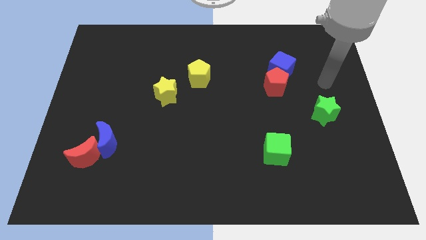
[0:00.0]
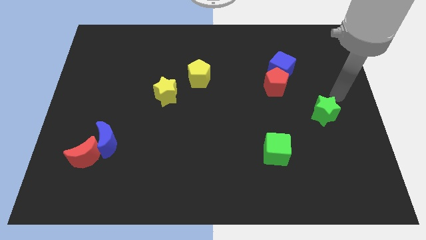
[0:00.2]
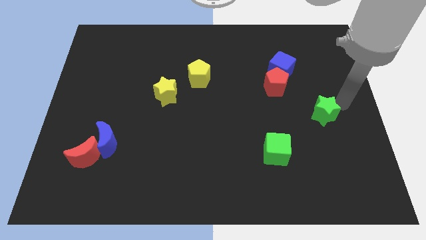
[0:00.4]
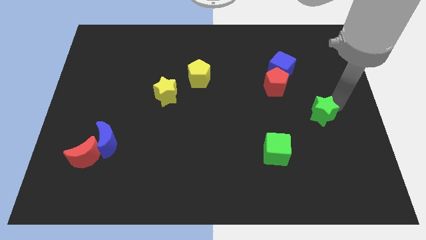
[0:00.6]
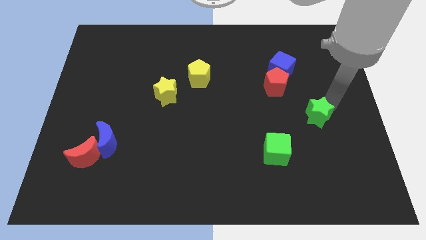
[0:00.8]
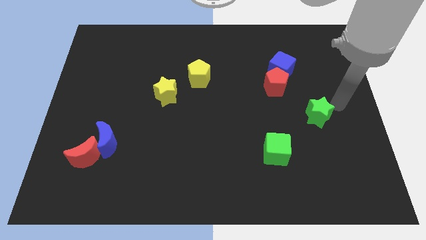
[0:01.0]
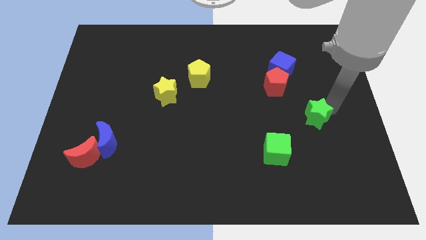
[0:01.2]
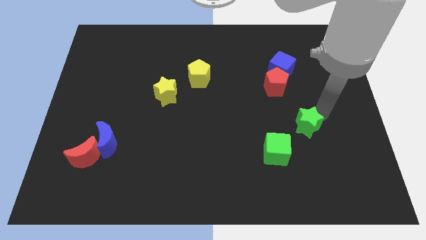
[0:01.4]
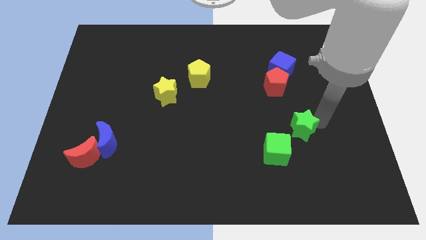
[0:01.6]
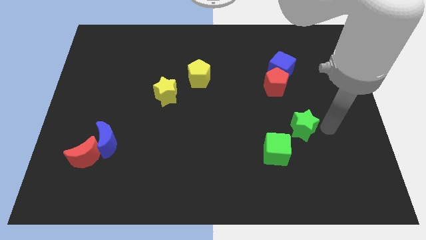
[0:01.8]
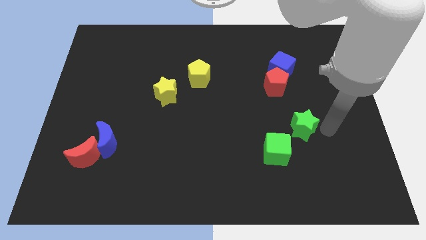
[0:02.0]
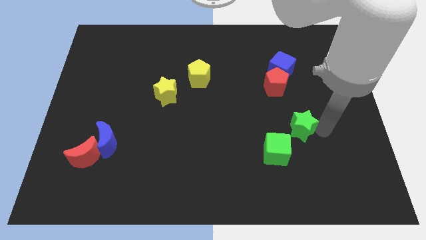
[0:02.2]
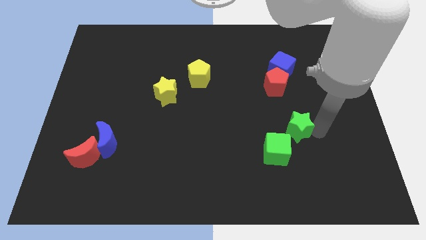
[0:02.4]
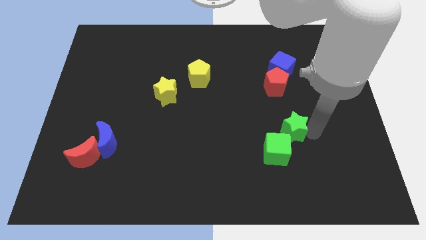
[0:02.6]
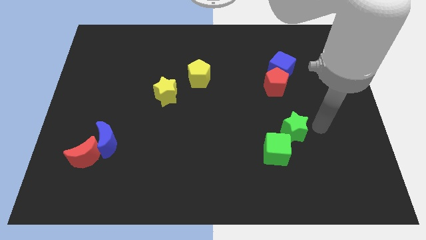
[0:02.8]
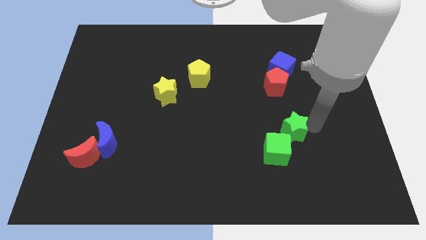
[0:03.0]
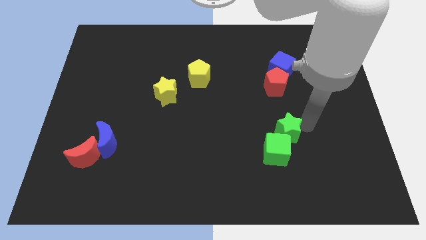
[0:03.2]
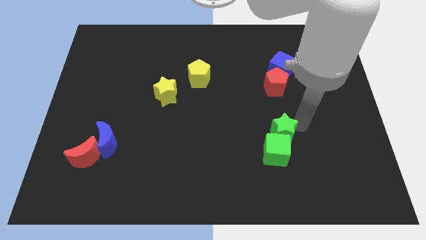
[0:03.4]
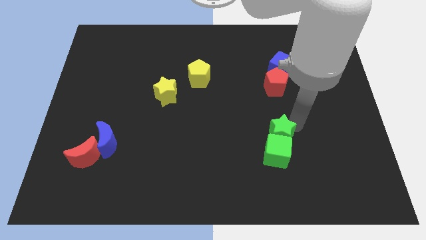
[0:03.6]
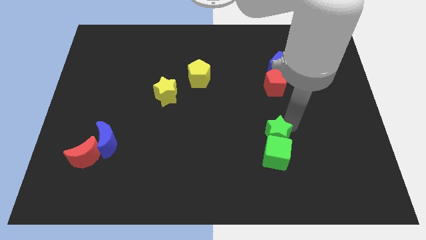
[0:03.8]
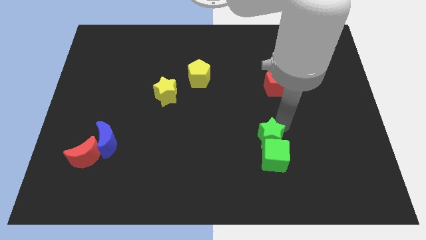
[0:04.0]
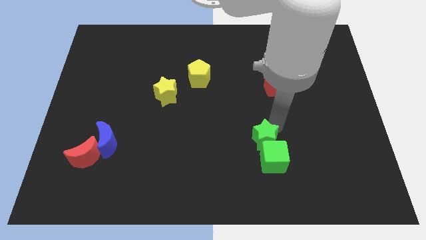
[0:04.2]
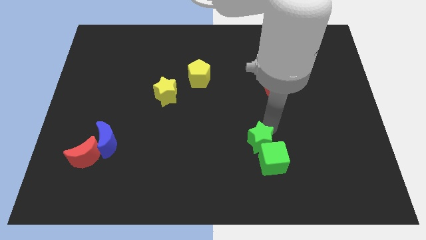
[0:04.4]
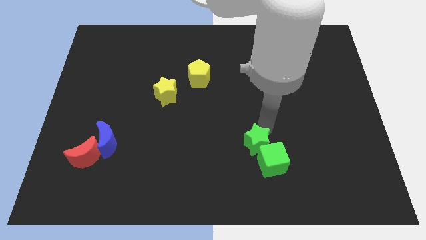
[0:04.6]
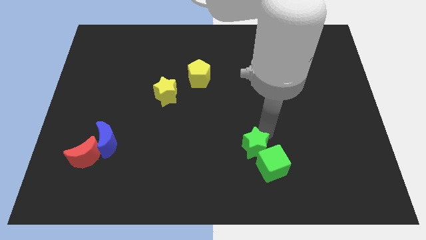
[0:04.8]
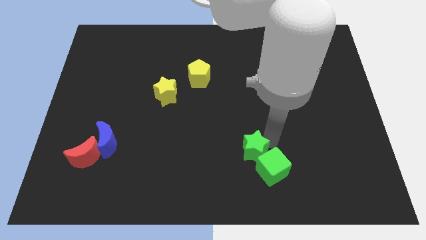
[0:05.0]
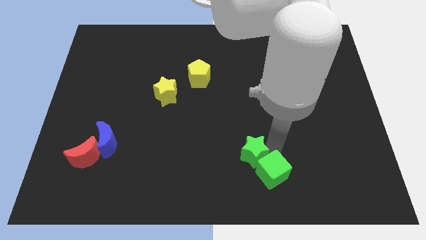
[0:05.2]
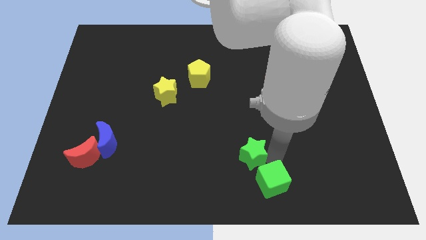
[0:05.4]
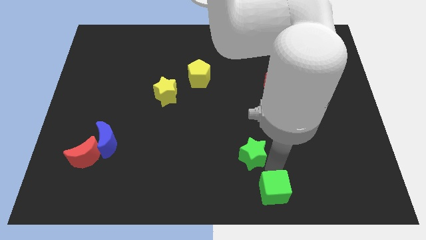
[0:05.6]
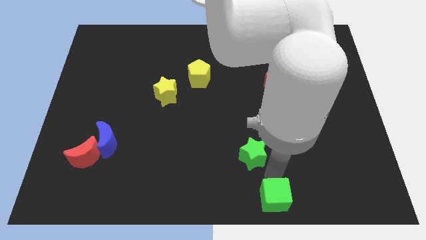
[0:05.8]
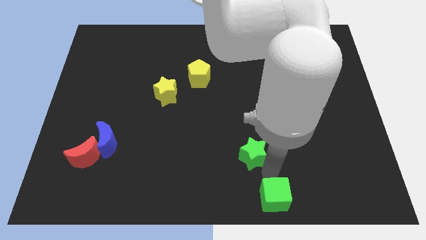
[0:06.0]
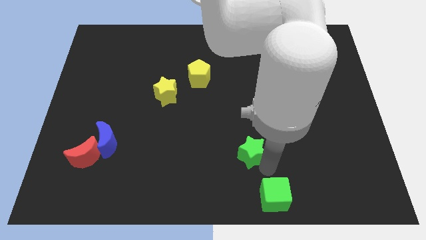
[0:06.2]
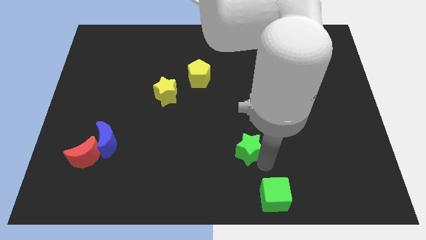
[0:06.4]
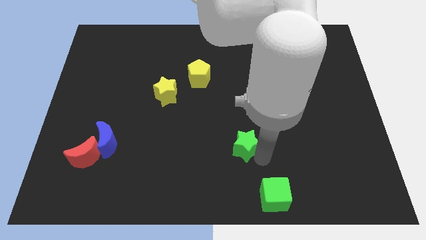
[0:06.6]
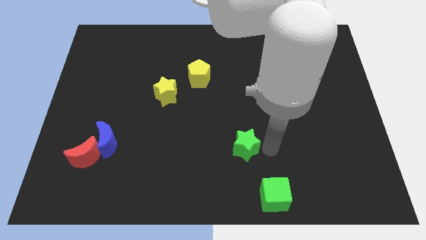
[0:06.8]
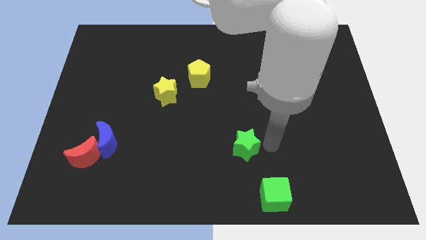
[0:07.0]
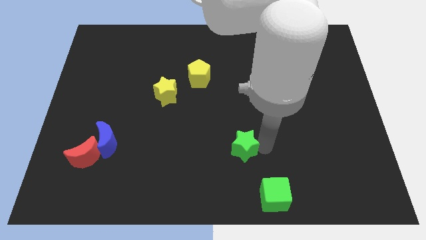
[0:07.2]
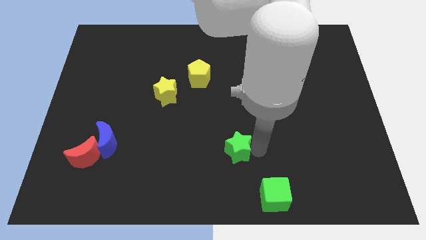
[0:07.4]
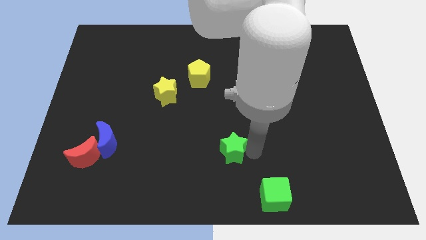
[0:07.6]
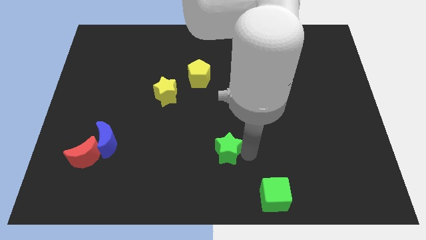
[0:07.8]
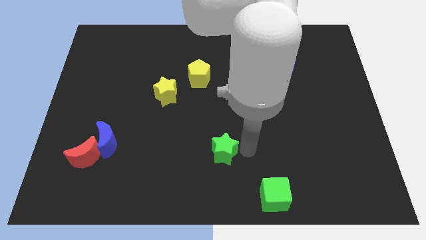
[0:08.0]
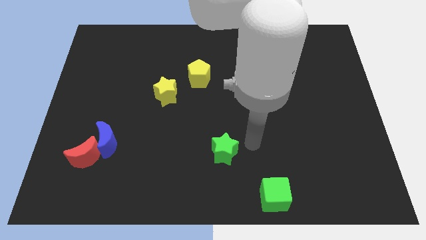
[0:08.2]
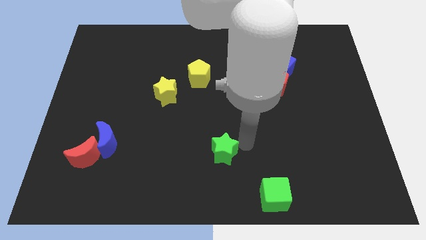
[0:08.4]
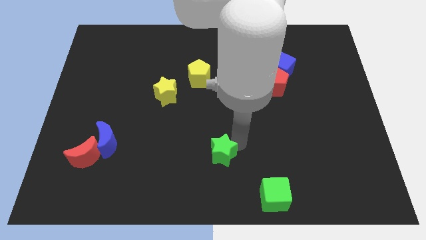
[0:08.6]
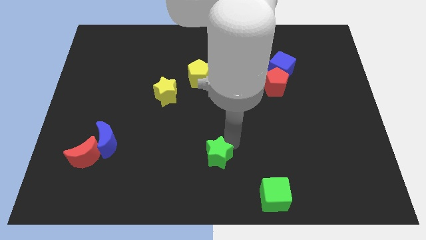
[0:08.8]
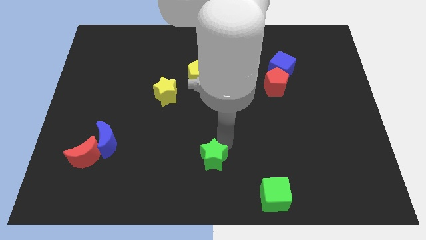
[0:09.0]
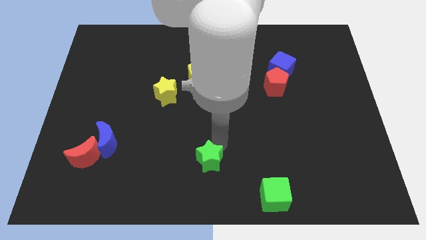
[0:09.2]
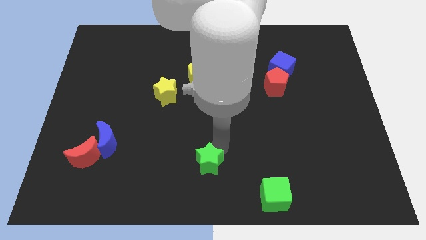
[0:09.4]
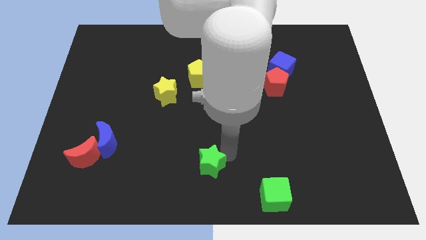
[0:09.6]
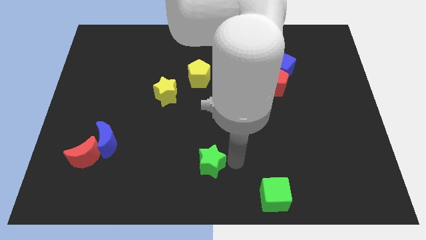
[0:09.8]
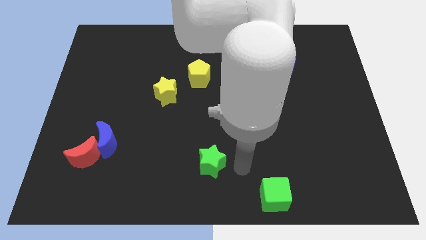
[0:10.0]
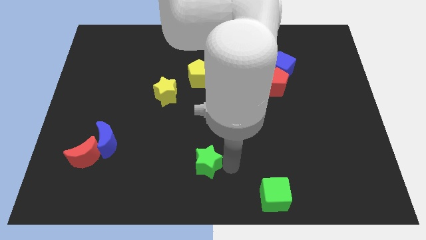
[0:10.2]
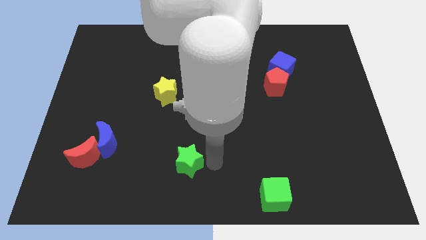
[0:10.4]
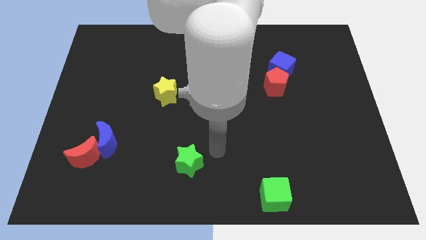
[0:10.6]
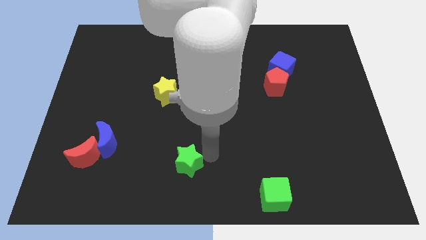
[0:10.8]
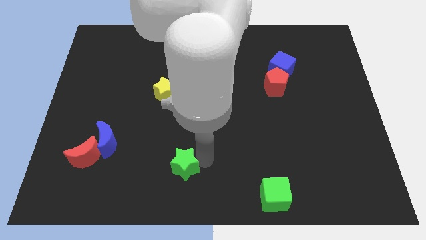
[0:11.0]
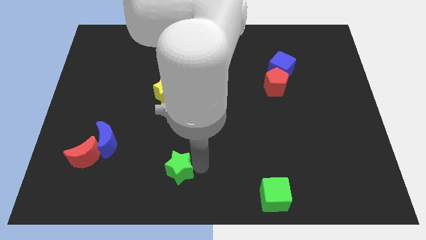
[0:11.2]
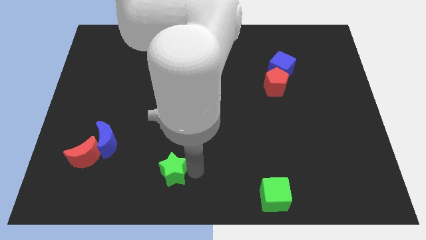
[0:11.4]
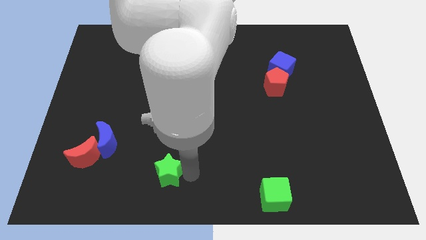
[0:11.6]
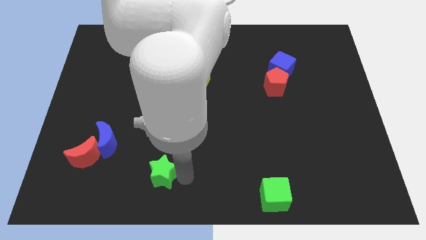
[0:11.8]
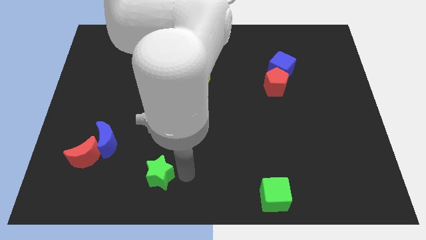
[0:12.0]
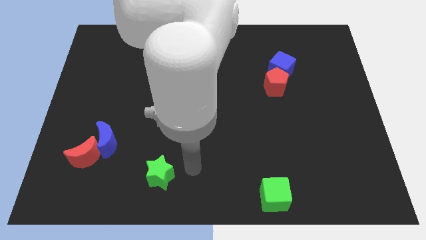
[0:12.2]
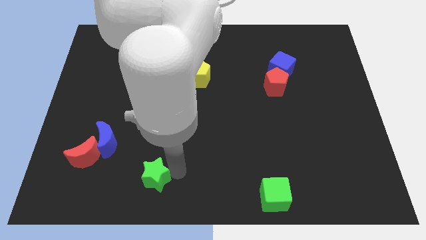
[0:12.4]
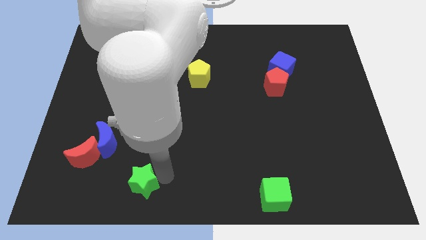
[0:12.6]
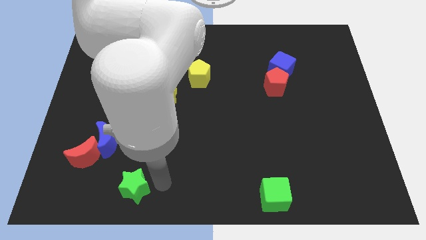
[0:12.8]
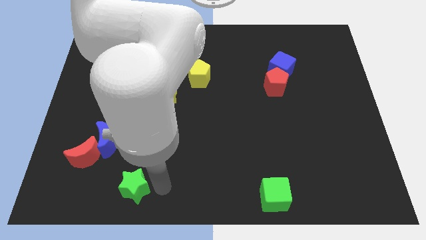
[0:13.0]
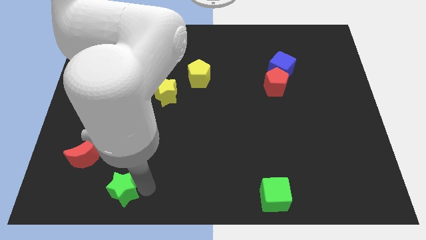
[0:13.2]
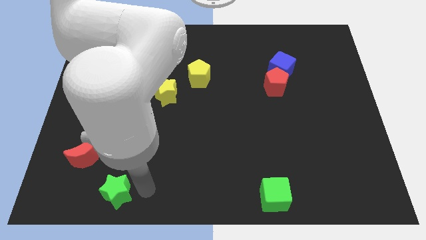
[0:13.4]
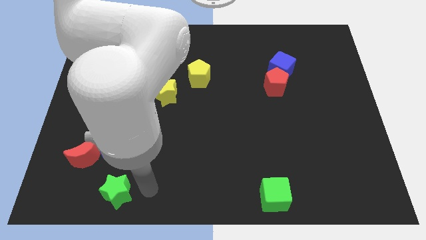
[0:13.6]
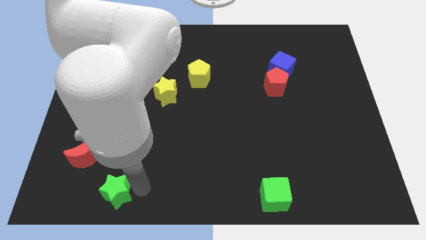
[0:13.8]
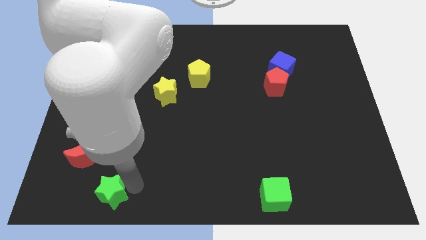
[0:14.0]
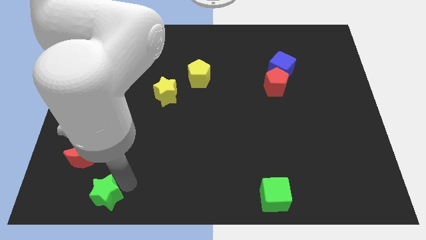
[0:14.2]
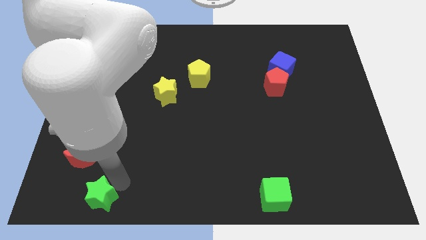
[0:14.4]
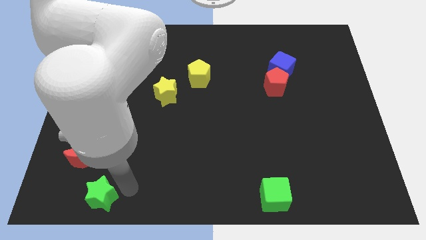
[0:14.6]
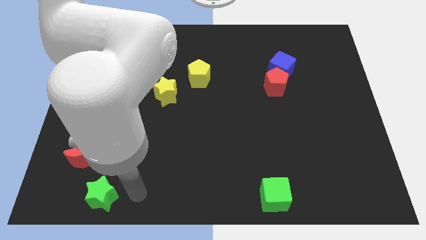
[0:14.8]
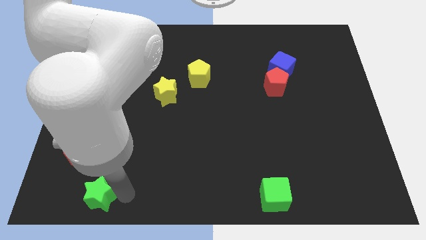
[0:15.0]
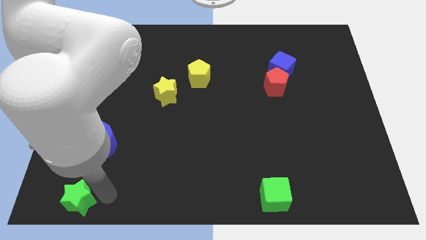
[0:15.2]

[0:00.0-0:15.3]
put the green star to the bottom left of the board
